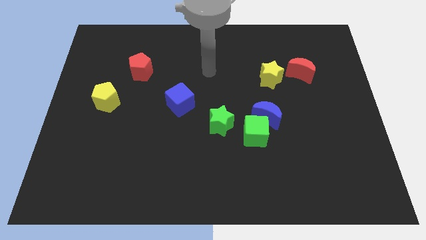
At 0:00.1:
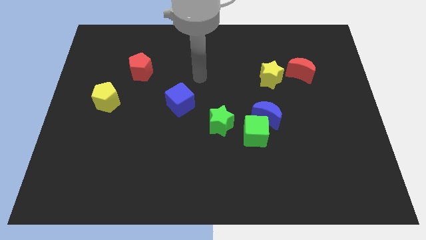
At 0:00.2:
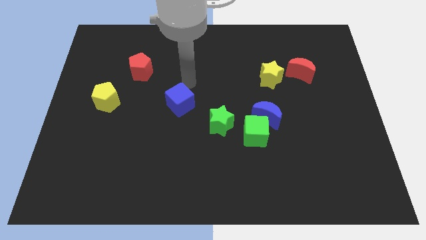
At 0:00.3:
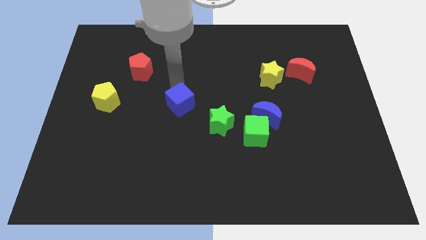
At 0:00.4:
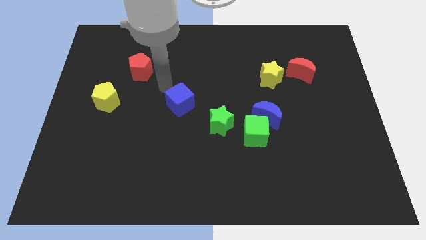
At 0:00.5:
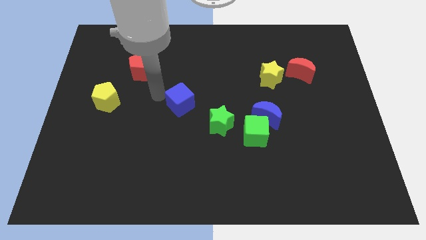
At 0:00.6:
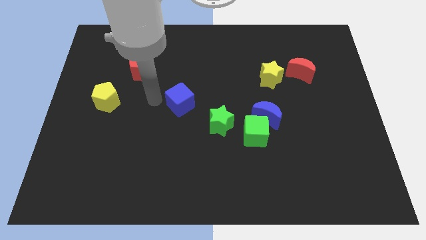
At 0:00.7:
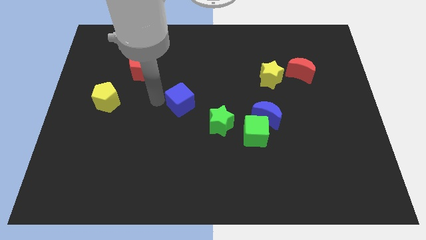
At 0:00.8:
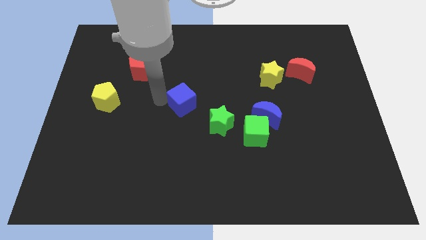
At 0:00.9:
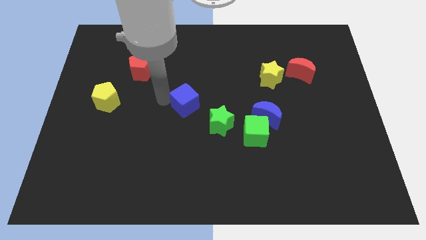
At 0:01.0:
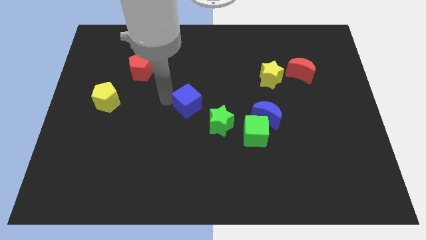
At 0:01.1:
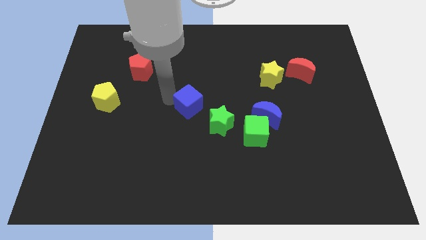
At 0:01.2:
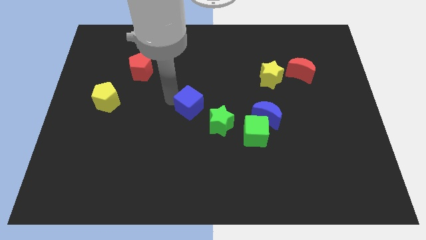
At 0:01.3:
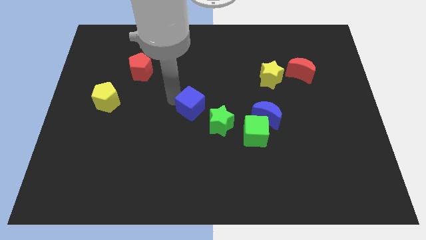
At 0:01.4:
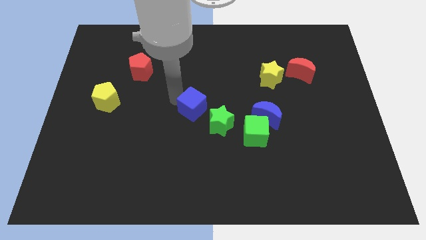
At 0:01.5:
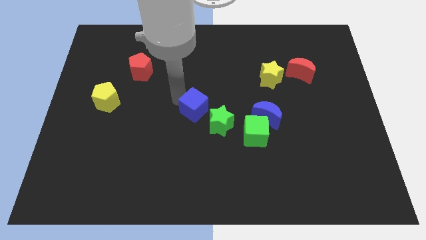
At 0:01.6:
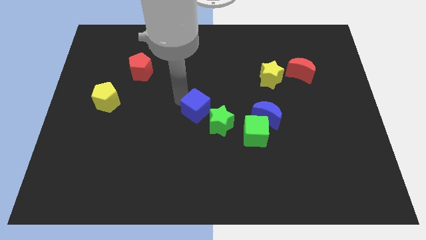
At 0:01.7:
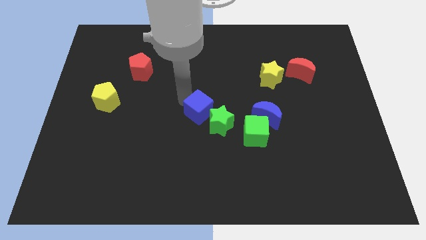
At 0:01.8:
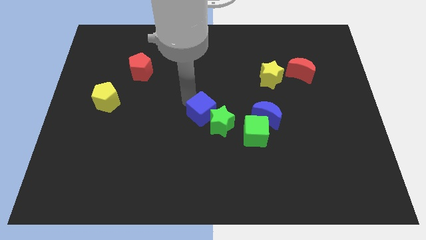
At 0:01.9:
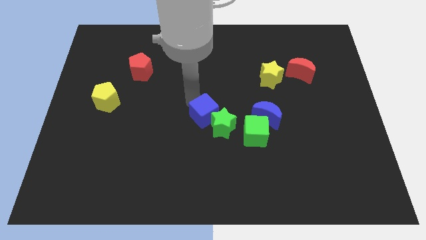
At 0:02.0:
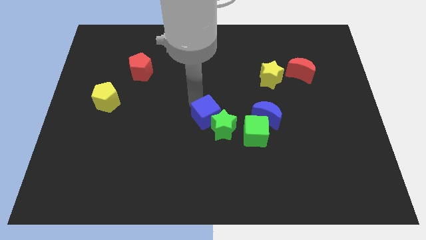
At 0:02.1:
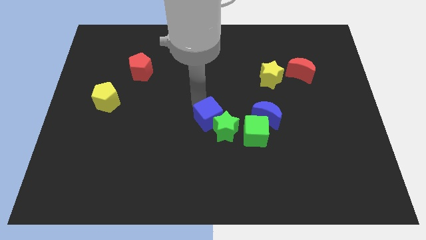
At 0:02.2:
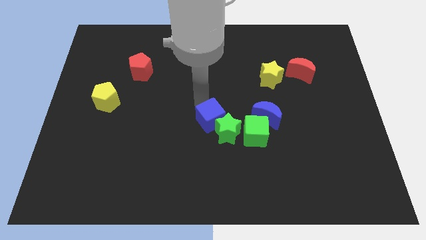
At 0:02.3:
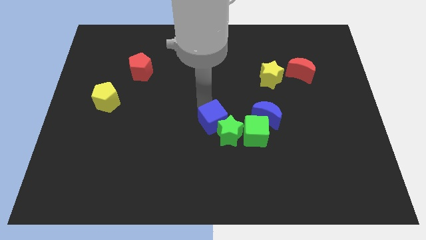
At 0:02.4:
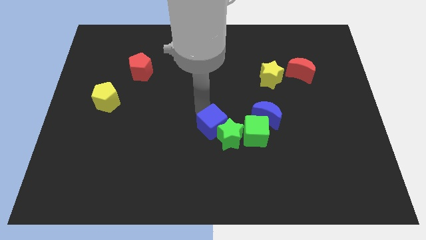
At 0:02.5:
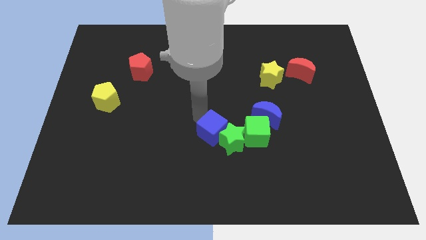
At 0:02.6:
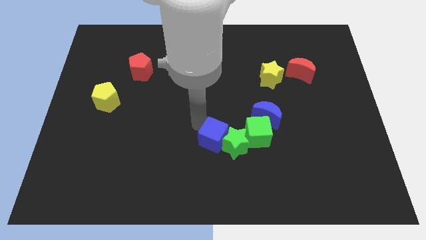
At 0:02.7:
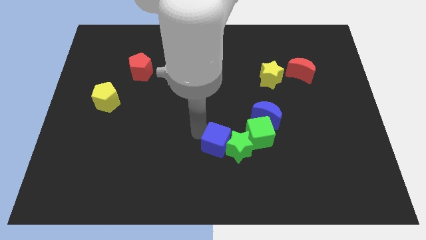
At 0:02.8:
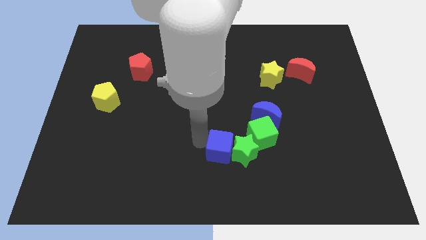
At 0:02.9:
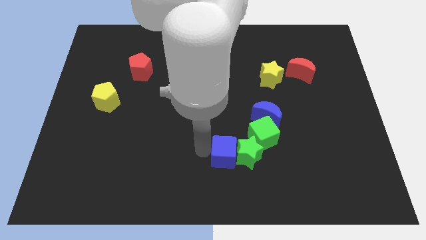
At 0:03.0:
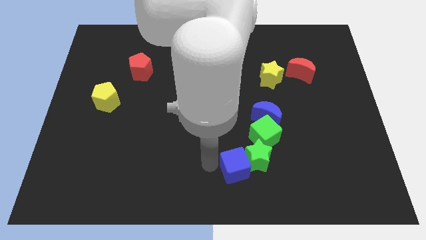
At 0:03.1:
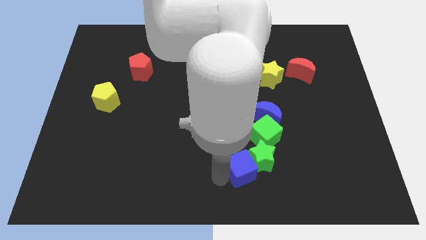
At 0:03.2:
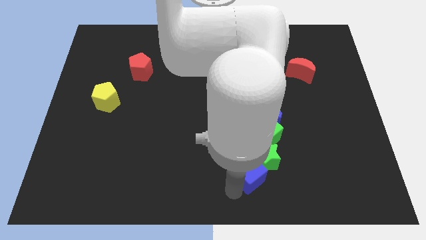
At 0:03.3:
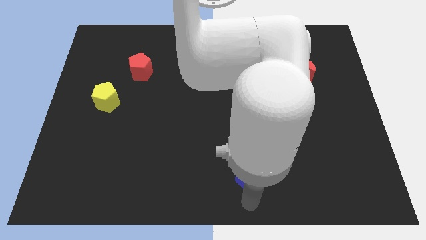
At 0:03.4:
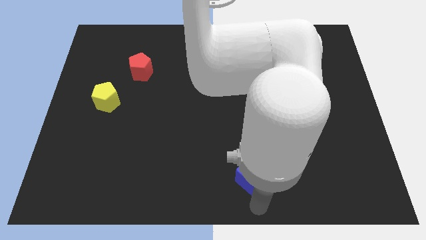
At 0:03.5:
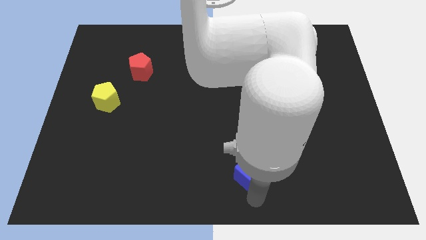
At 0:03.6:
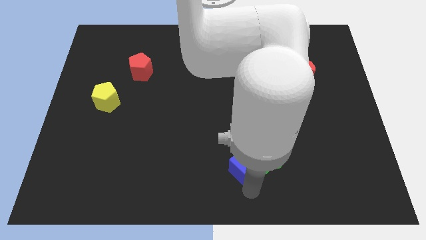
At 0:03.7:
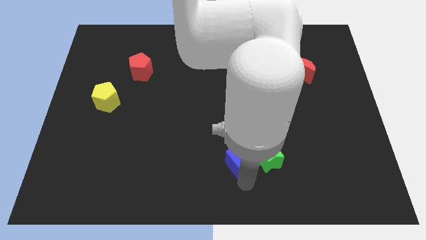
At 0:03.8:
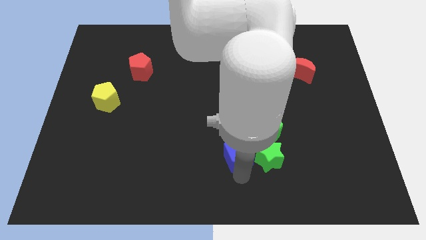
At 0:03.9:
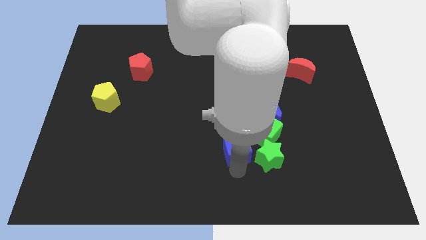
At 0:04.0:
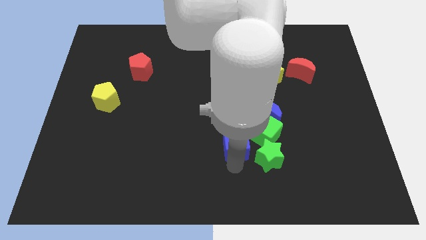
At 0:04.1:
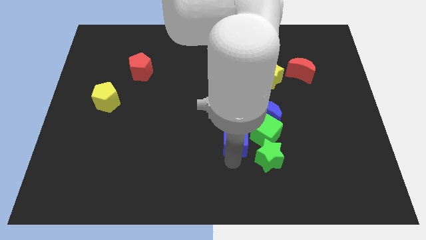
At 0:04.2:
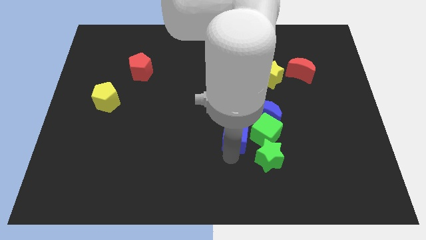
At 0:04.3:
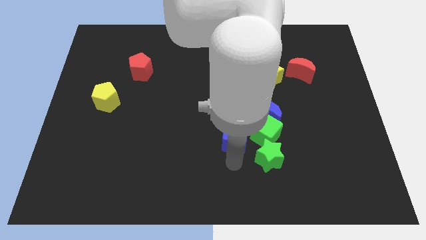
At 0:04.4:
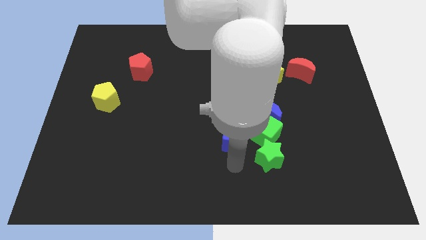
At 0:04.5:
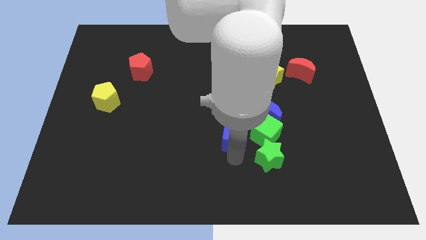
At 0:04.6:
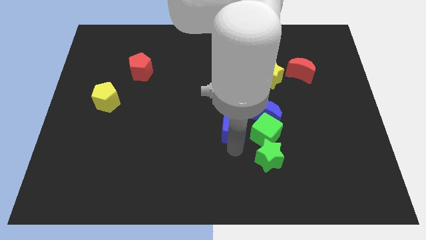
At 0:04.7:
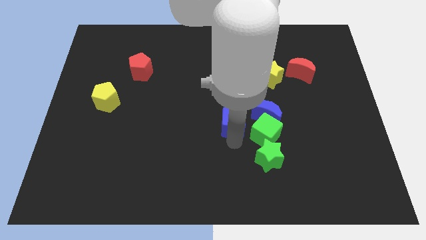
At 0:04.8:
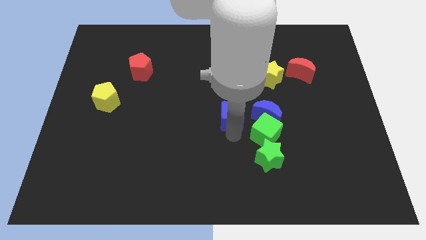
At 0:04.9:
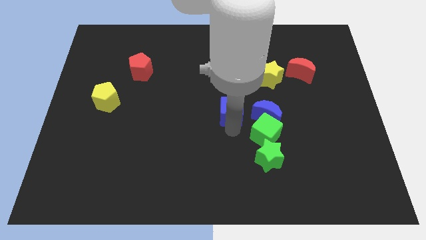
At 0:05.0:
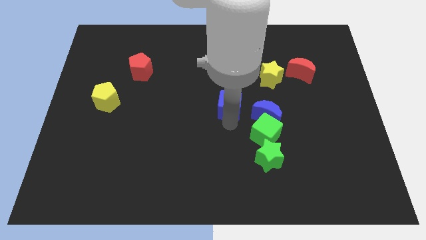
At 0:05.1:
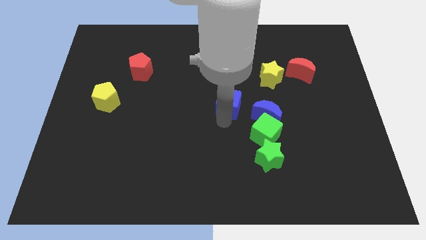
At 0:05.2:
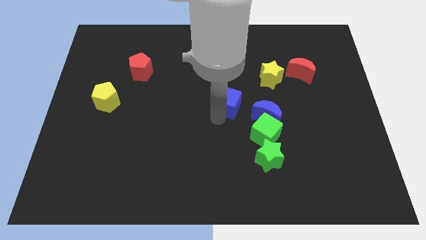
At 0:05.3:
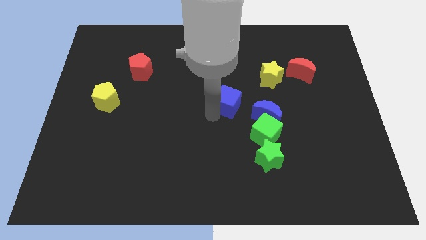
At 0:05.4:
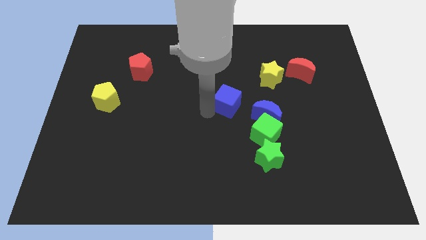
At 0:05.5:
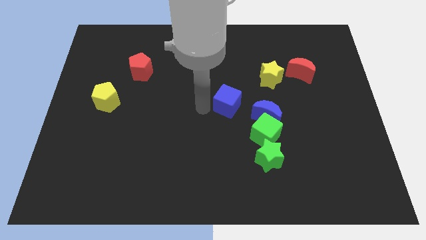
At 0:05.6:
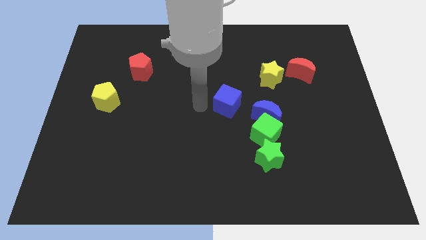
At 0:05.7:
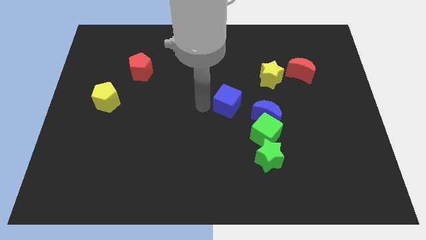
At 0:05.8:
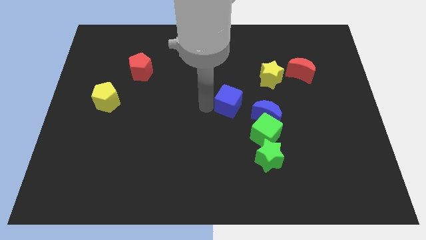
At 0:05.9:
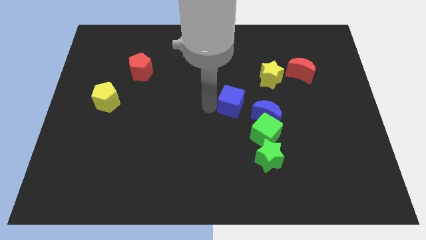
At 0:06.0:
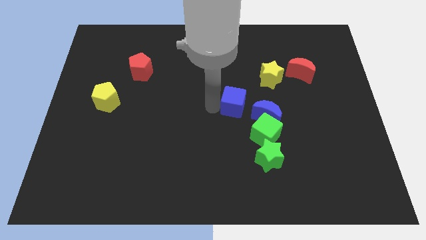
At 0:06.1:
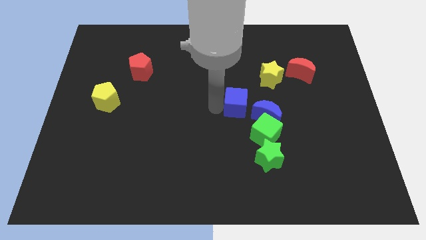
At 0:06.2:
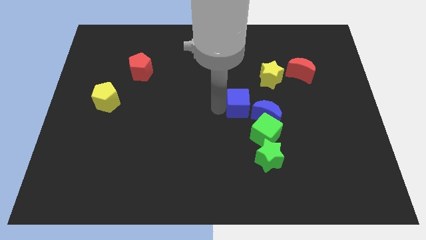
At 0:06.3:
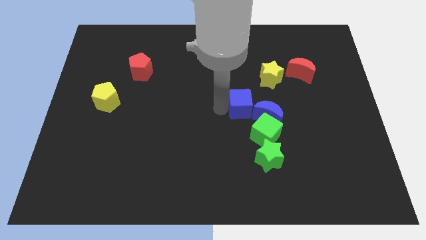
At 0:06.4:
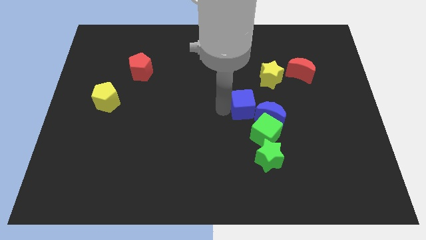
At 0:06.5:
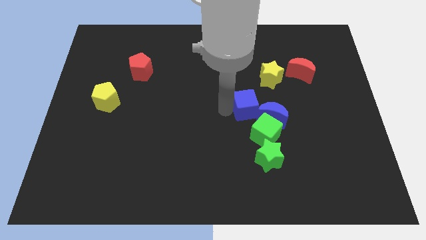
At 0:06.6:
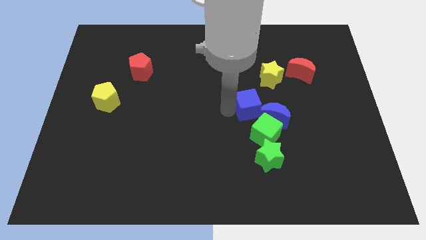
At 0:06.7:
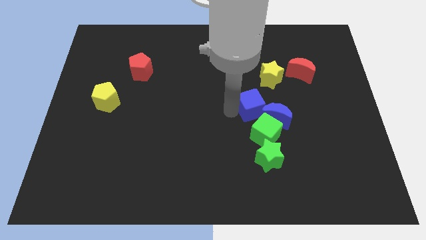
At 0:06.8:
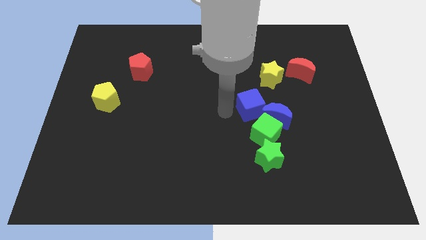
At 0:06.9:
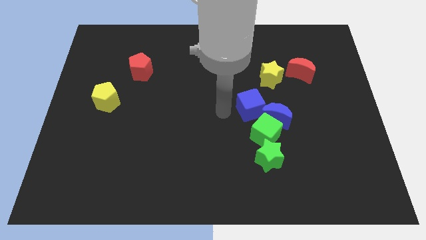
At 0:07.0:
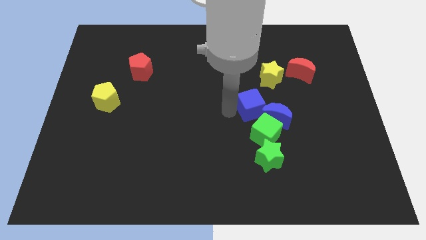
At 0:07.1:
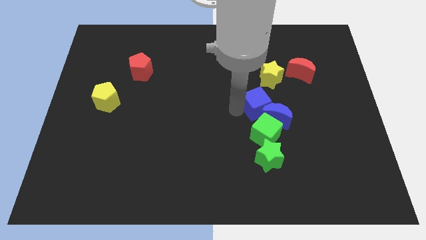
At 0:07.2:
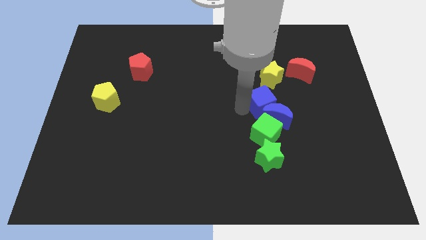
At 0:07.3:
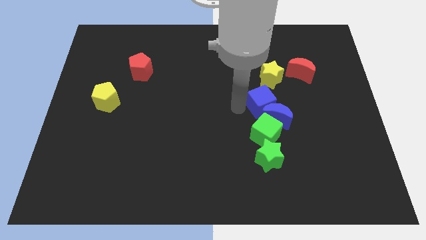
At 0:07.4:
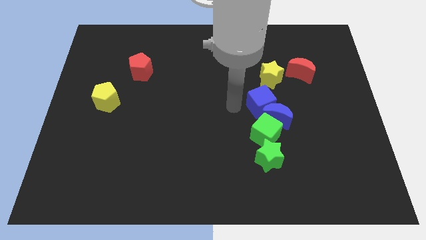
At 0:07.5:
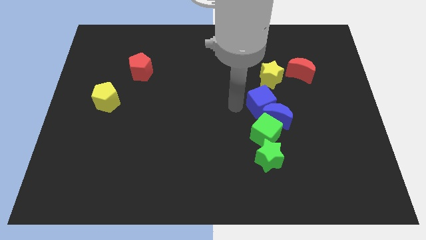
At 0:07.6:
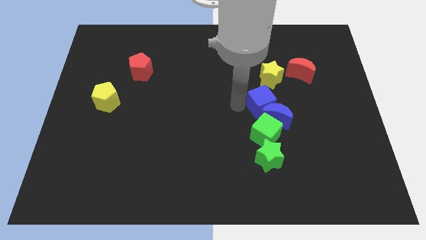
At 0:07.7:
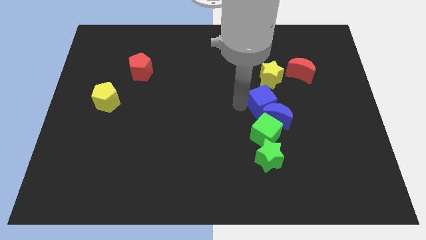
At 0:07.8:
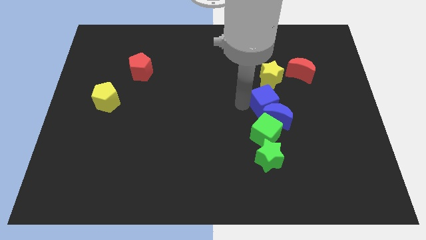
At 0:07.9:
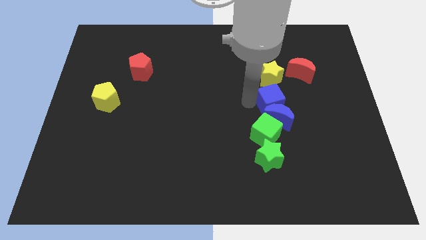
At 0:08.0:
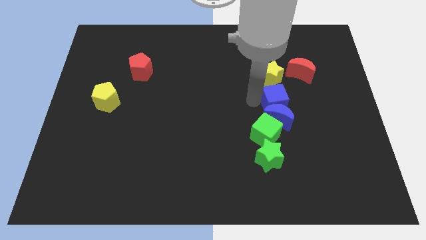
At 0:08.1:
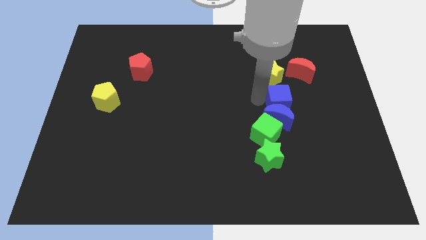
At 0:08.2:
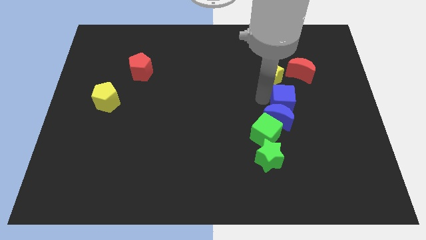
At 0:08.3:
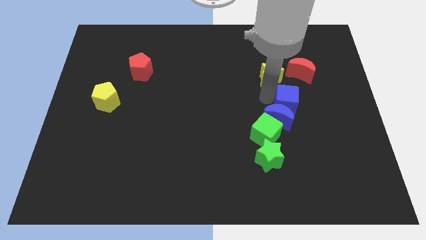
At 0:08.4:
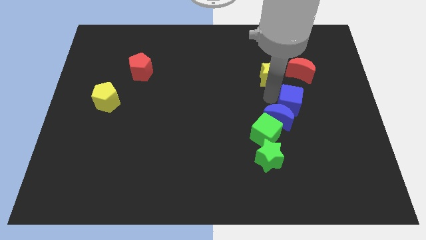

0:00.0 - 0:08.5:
move the blue cube to the right of the blue moon
